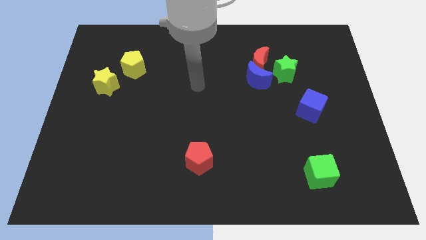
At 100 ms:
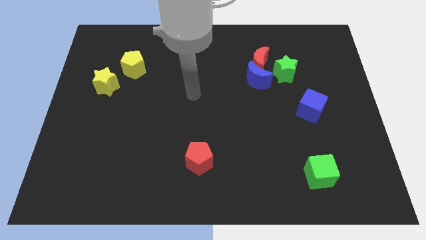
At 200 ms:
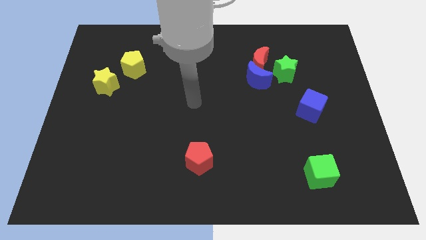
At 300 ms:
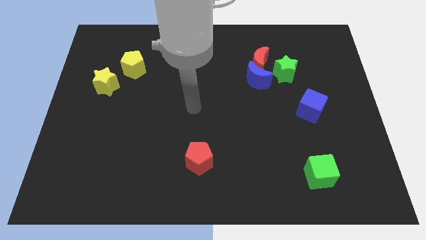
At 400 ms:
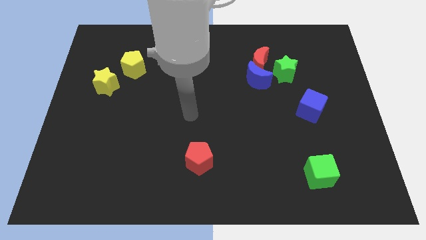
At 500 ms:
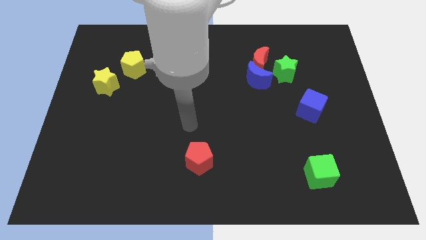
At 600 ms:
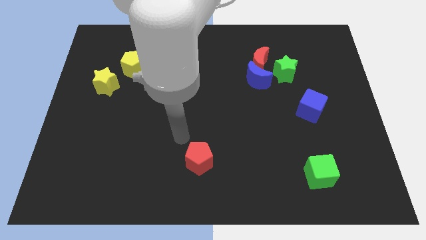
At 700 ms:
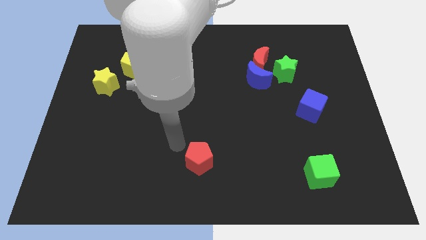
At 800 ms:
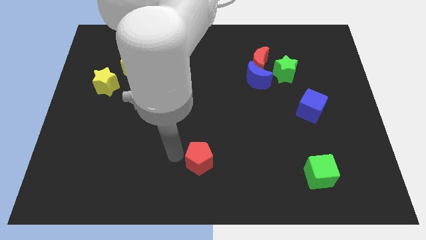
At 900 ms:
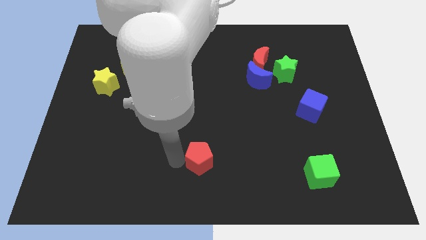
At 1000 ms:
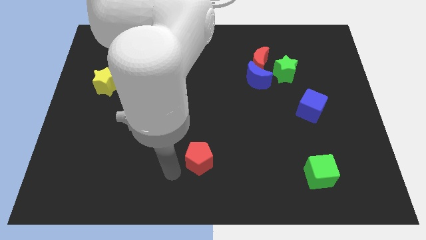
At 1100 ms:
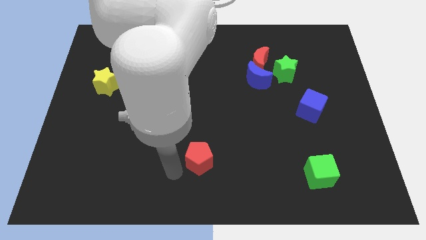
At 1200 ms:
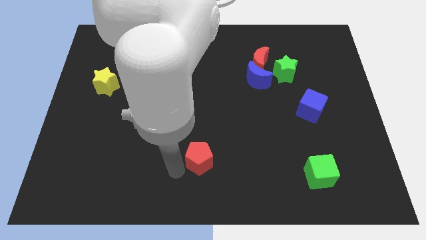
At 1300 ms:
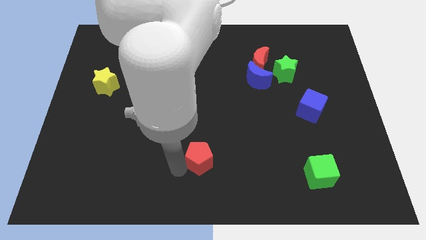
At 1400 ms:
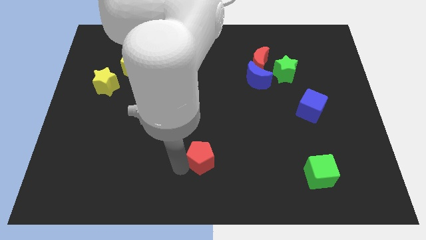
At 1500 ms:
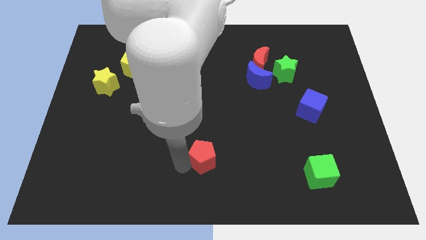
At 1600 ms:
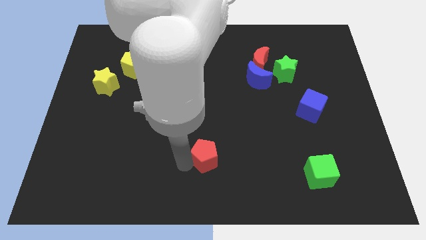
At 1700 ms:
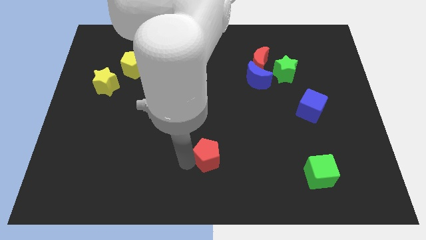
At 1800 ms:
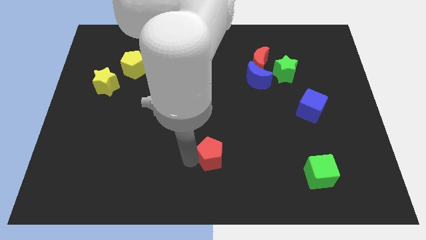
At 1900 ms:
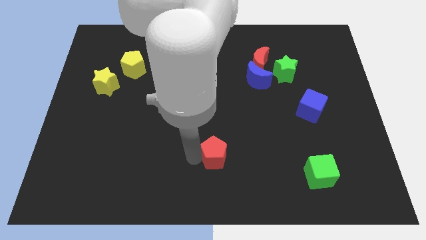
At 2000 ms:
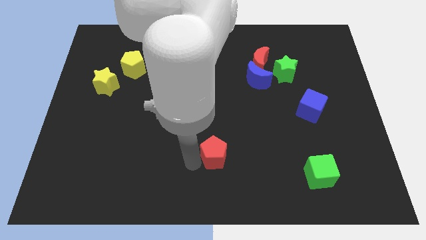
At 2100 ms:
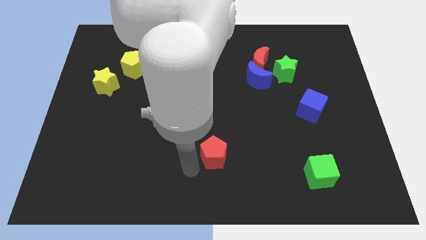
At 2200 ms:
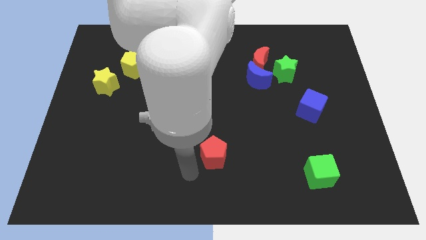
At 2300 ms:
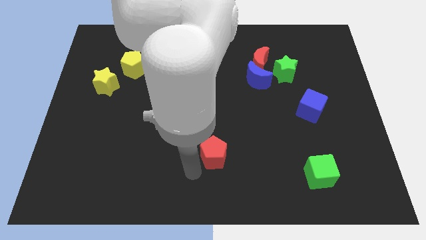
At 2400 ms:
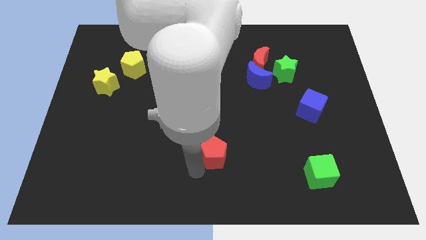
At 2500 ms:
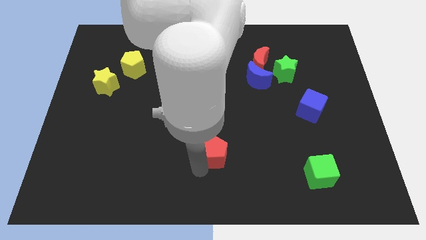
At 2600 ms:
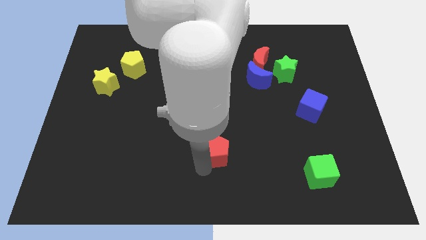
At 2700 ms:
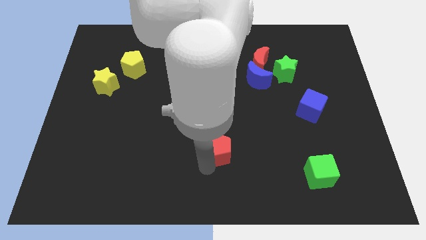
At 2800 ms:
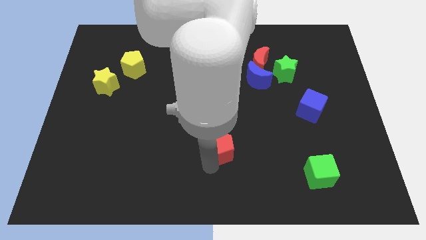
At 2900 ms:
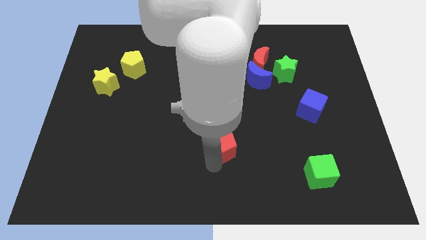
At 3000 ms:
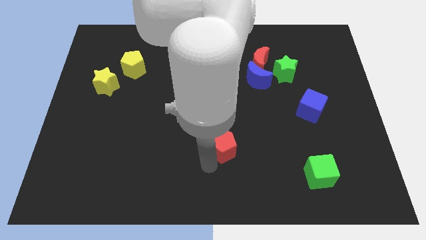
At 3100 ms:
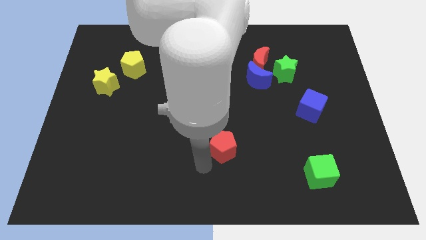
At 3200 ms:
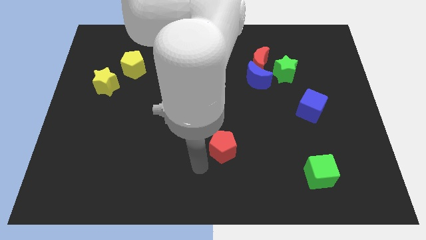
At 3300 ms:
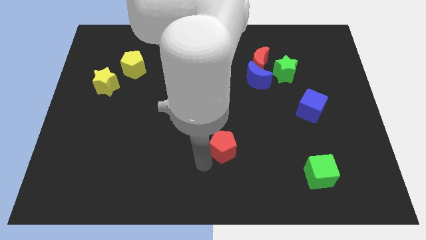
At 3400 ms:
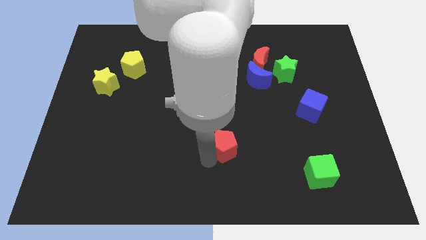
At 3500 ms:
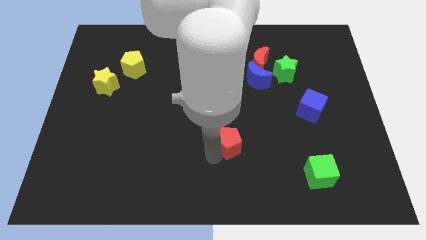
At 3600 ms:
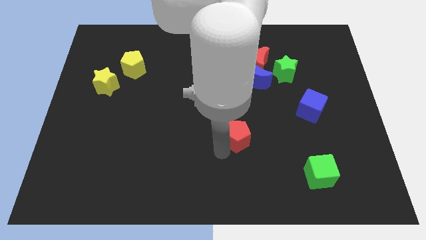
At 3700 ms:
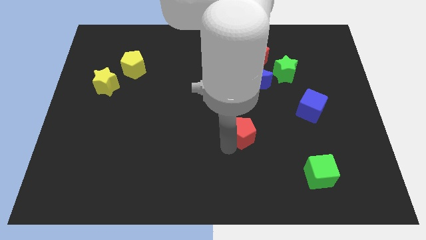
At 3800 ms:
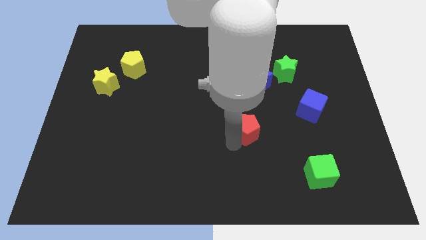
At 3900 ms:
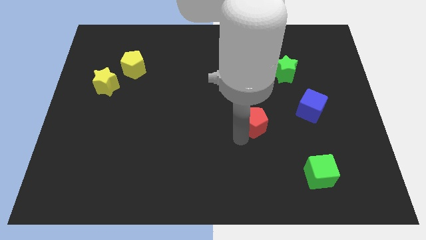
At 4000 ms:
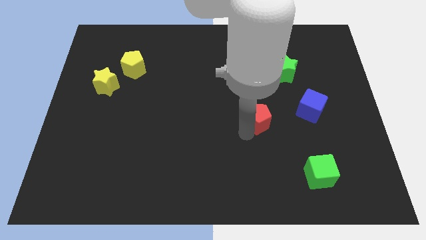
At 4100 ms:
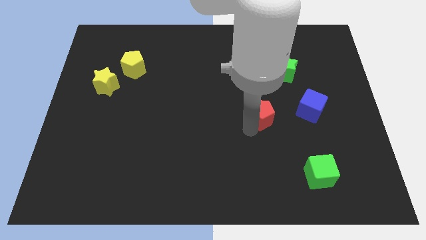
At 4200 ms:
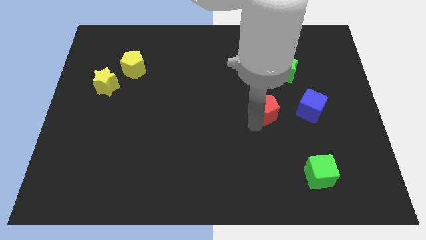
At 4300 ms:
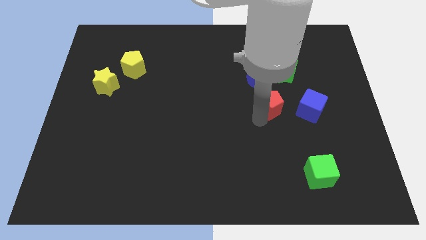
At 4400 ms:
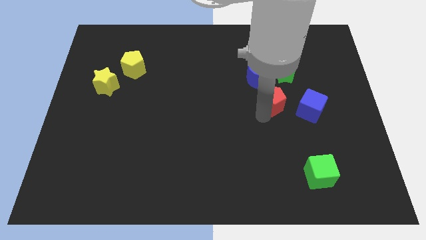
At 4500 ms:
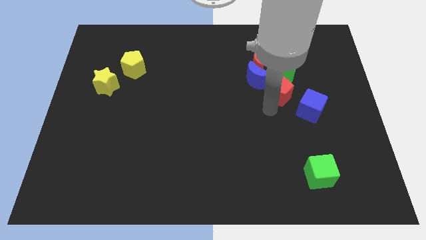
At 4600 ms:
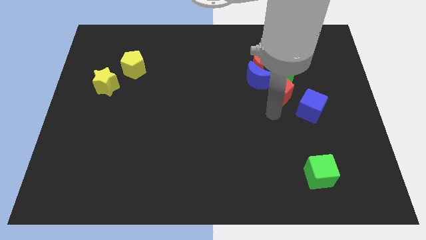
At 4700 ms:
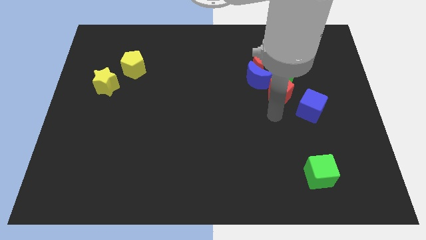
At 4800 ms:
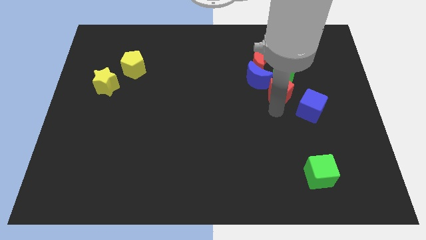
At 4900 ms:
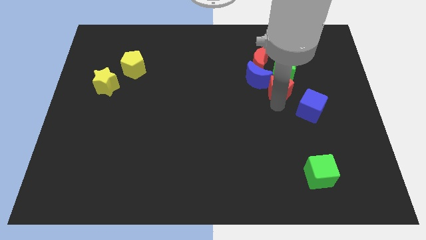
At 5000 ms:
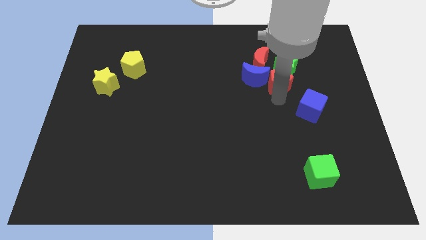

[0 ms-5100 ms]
put the red pentagon to the green star

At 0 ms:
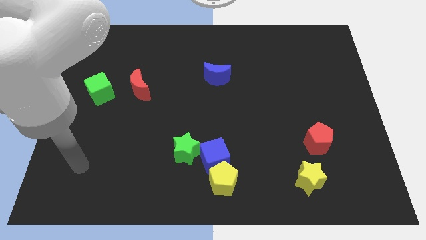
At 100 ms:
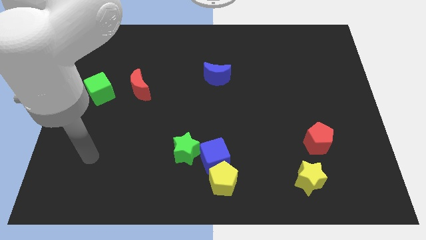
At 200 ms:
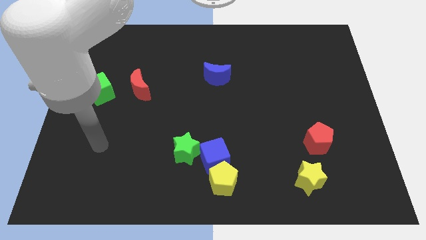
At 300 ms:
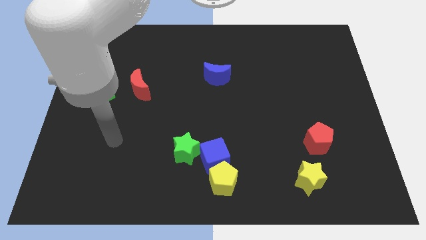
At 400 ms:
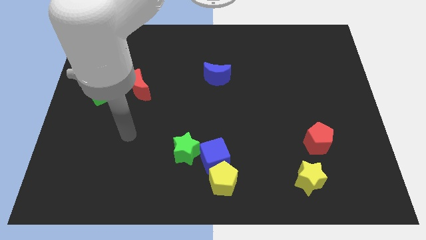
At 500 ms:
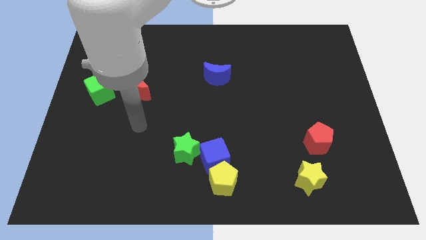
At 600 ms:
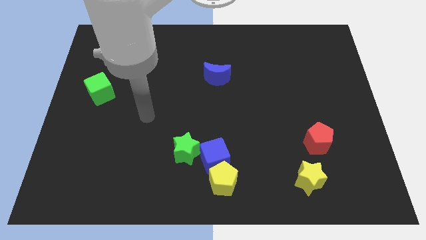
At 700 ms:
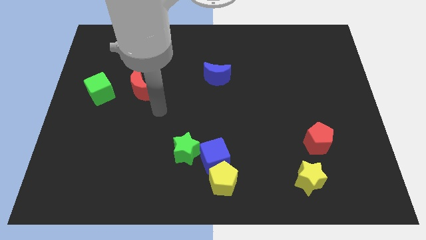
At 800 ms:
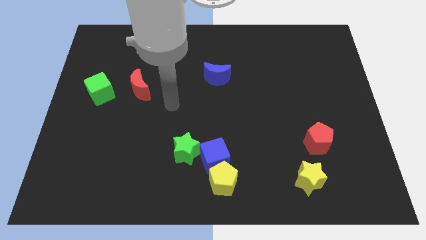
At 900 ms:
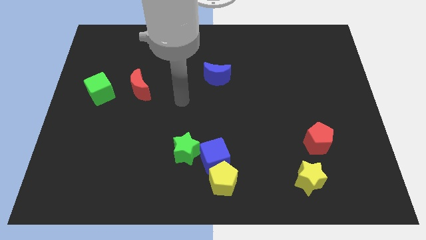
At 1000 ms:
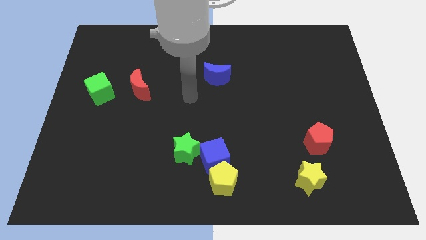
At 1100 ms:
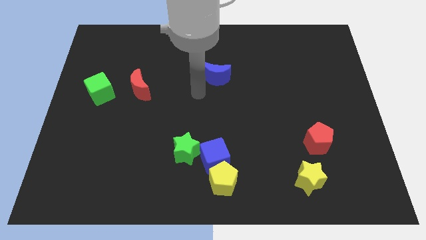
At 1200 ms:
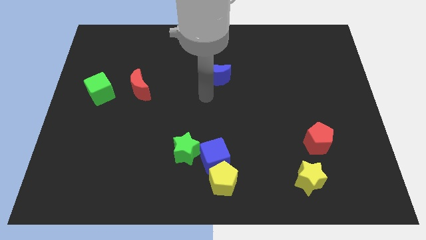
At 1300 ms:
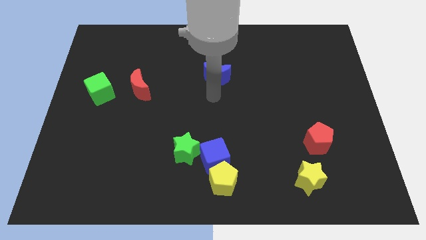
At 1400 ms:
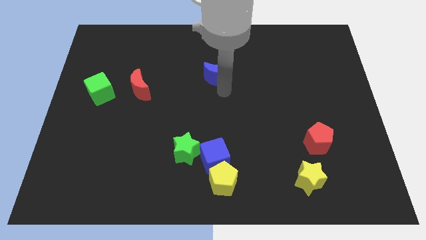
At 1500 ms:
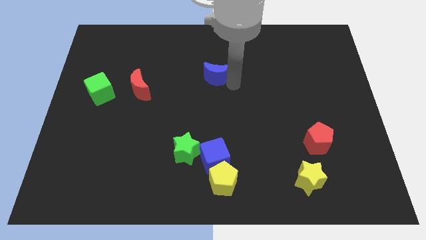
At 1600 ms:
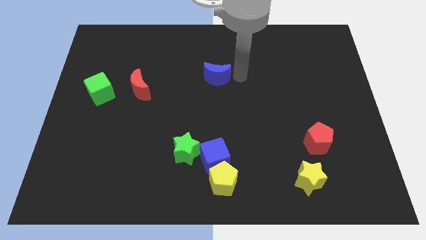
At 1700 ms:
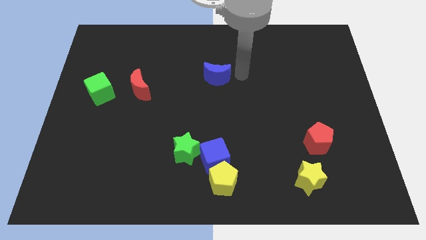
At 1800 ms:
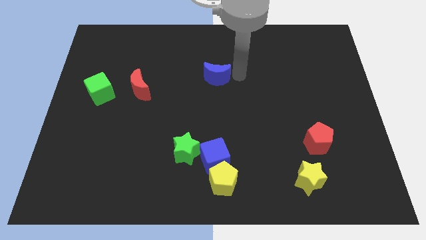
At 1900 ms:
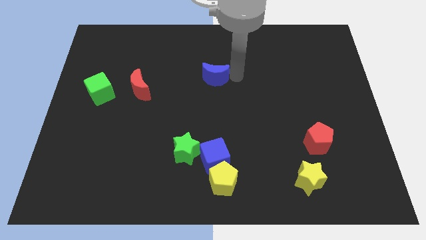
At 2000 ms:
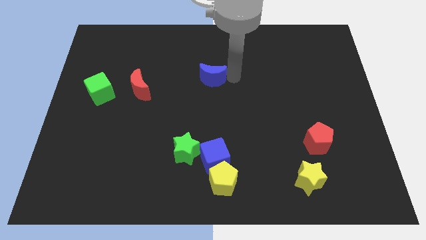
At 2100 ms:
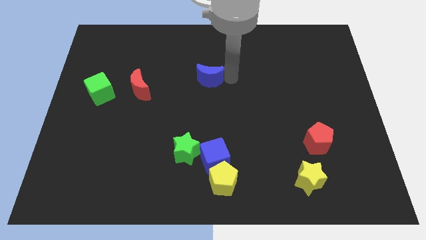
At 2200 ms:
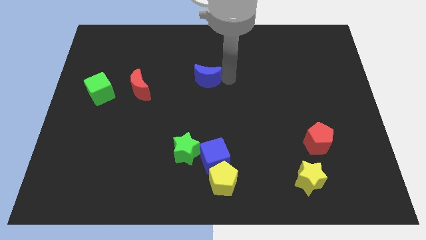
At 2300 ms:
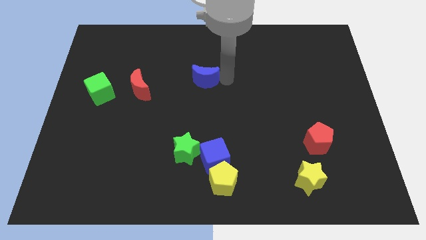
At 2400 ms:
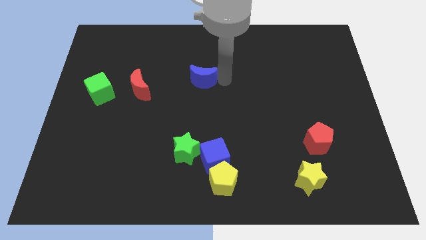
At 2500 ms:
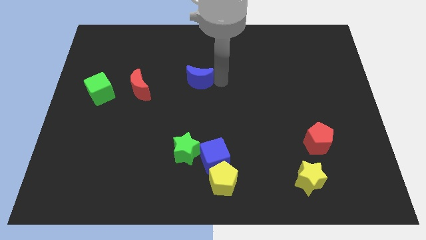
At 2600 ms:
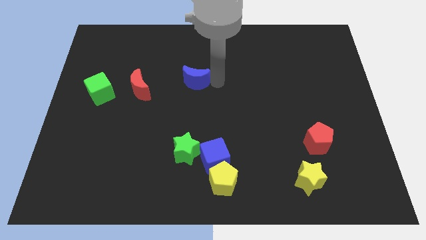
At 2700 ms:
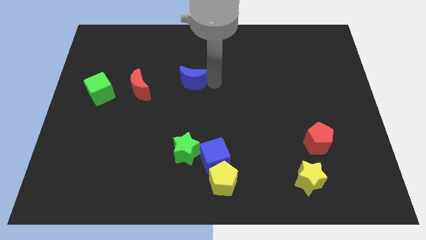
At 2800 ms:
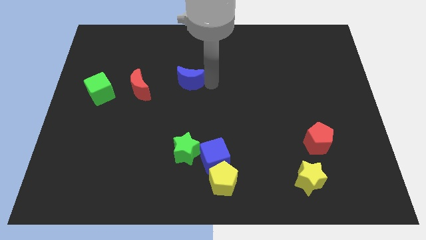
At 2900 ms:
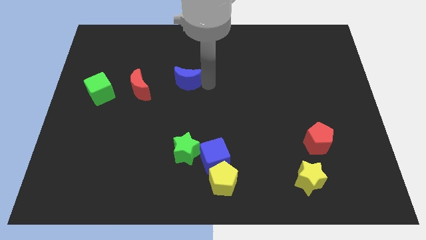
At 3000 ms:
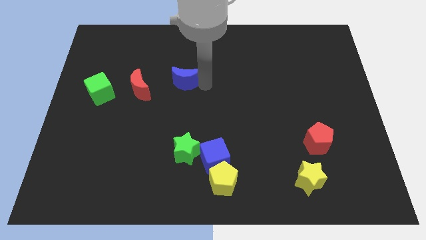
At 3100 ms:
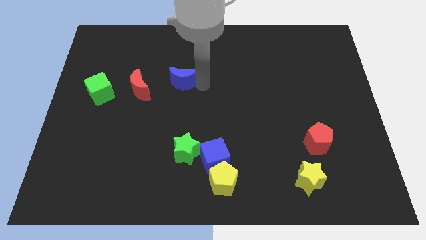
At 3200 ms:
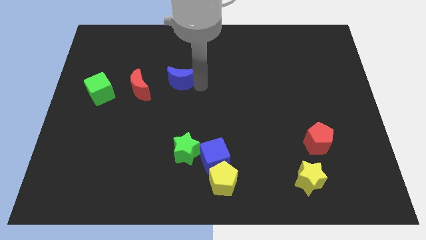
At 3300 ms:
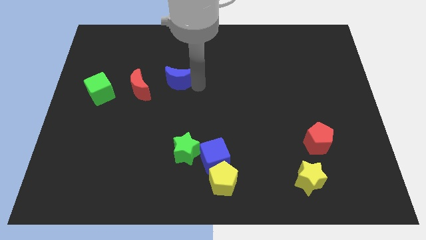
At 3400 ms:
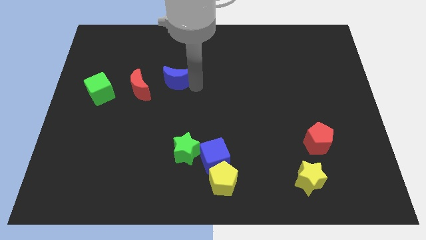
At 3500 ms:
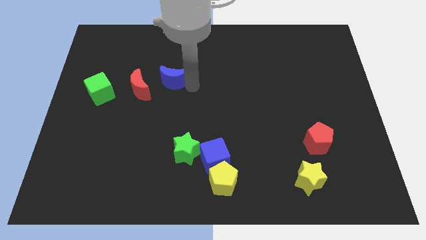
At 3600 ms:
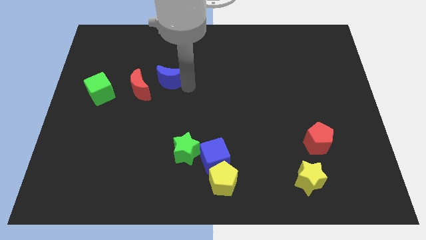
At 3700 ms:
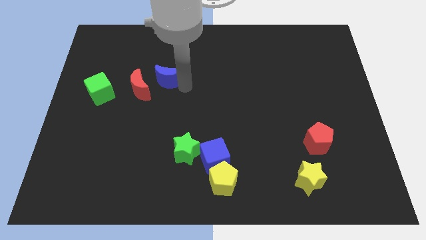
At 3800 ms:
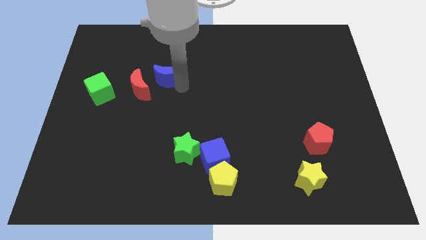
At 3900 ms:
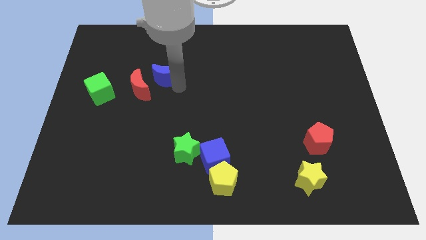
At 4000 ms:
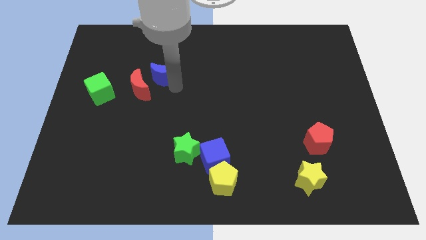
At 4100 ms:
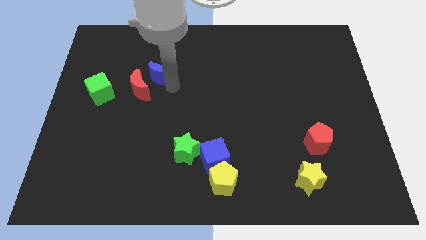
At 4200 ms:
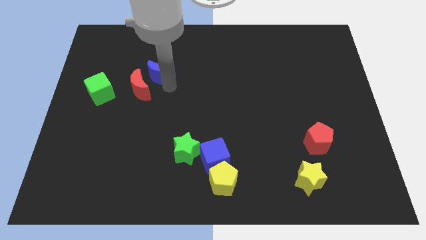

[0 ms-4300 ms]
move the blue moon towards the red moon
